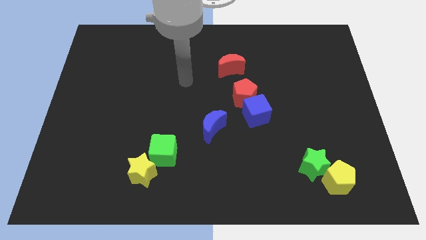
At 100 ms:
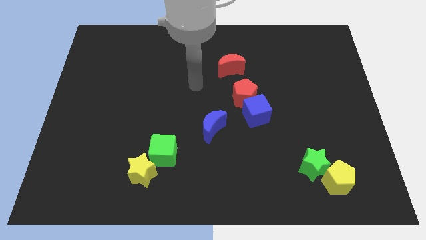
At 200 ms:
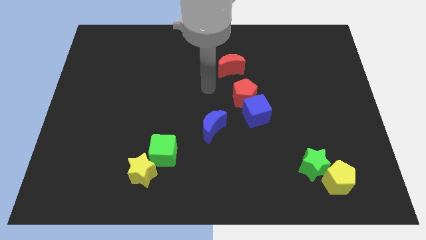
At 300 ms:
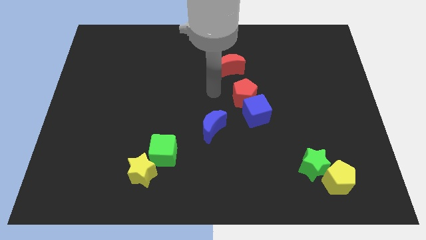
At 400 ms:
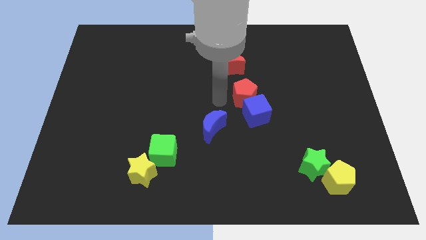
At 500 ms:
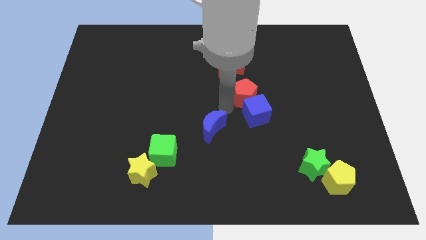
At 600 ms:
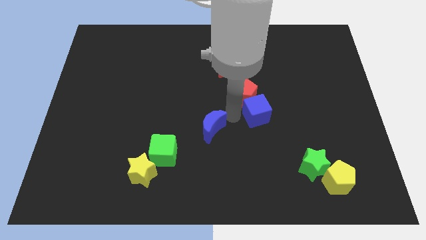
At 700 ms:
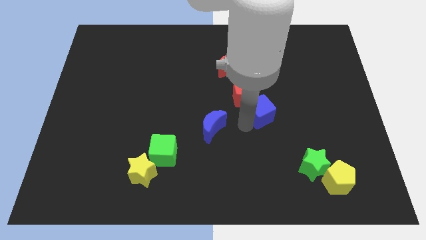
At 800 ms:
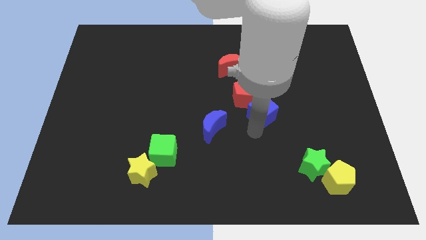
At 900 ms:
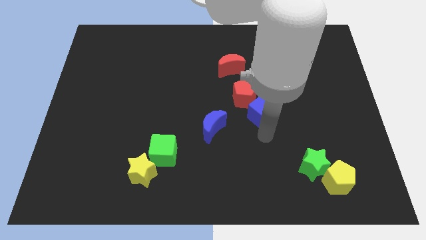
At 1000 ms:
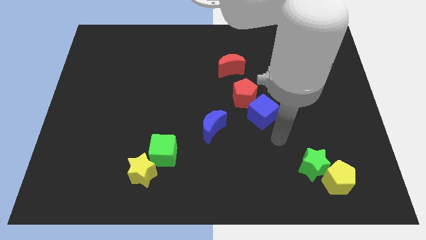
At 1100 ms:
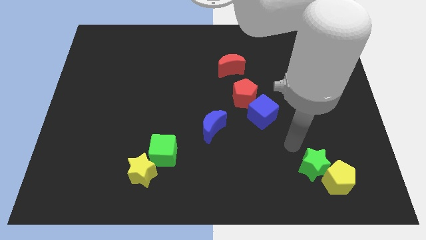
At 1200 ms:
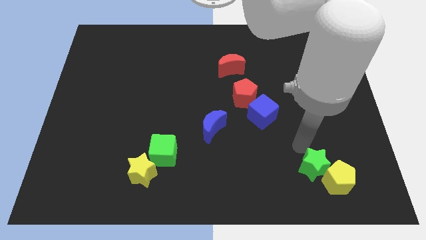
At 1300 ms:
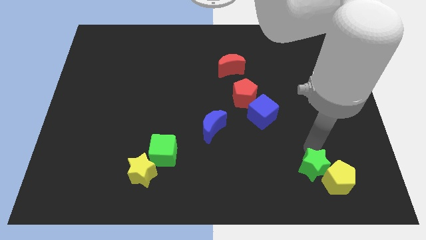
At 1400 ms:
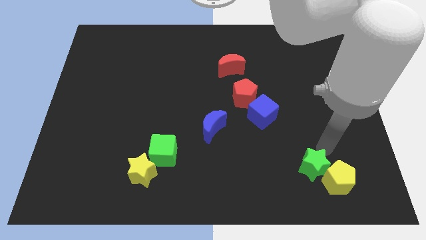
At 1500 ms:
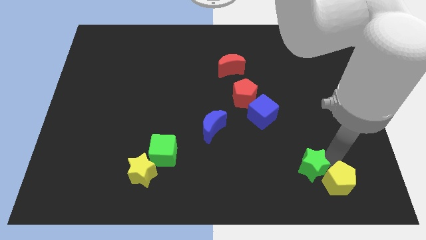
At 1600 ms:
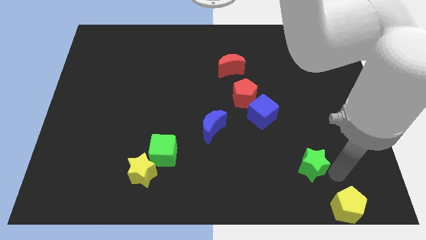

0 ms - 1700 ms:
move the green star away from the yellow pentagon

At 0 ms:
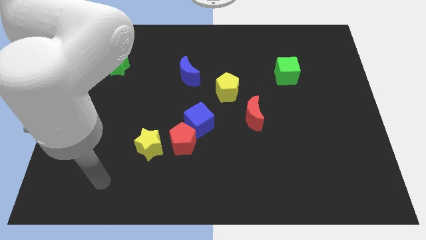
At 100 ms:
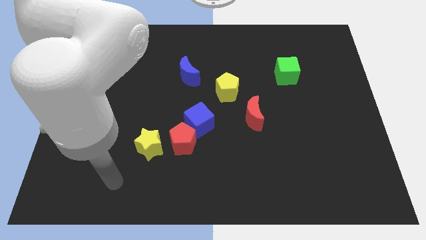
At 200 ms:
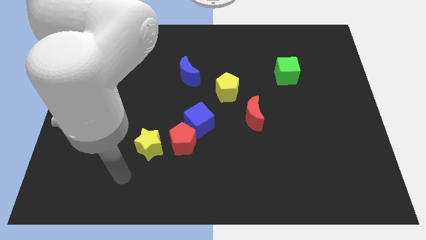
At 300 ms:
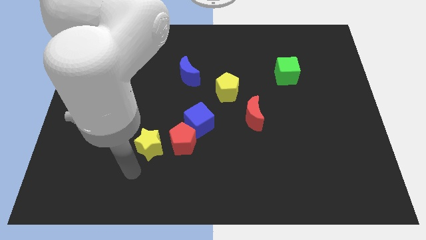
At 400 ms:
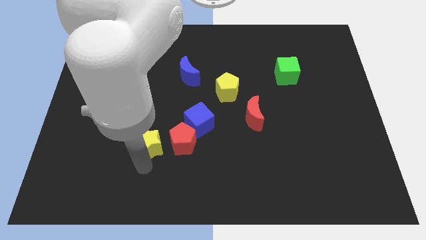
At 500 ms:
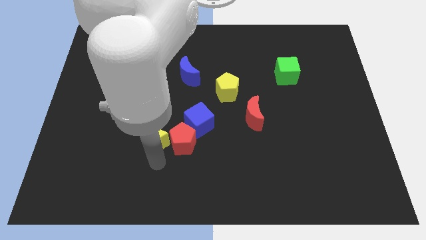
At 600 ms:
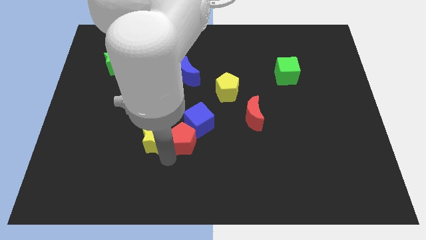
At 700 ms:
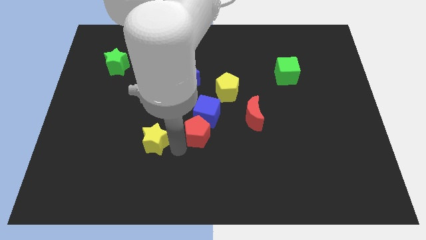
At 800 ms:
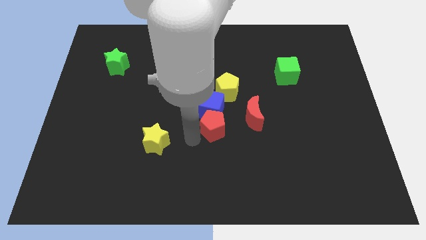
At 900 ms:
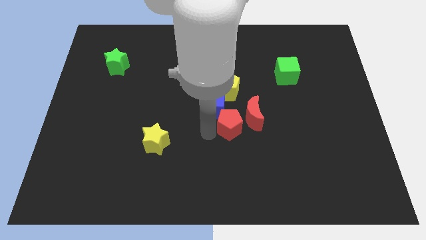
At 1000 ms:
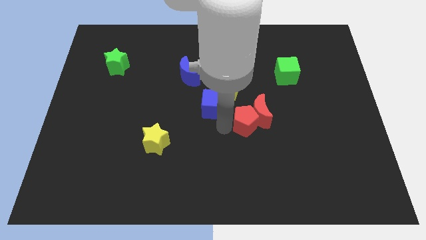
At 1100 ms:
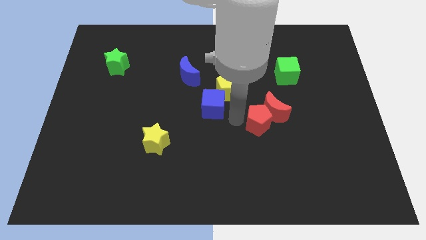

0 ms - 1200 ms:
separate the blue cube from the red pentagon

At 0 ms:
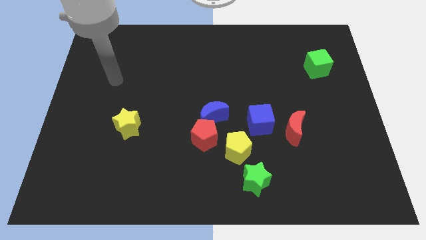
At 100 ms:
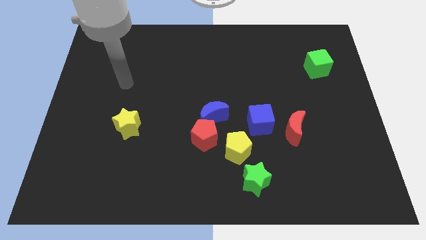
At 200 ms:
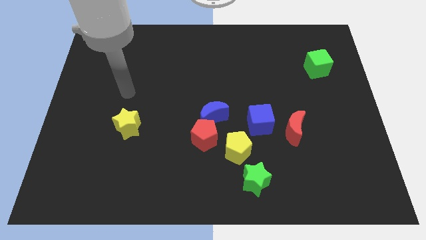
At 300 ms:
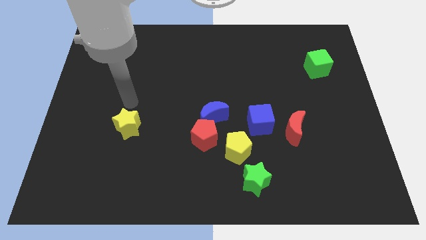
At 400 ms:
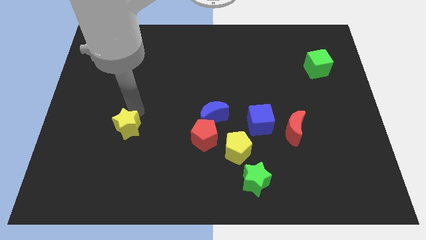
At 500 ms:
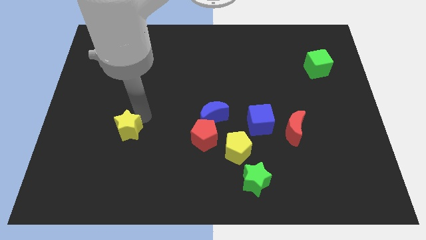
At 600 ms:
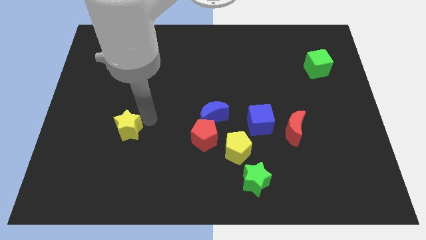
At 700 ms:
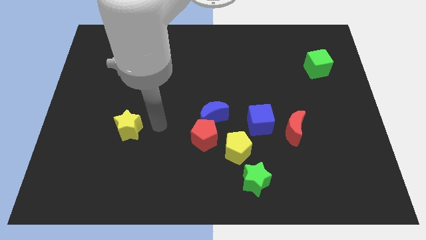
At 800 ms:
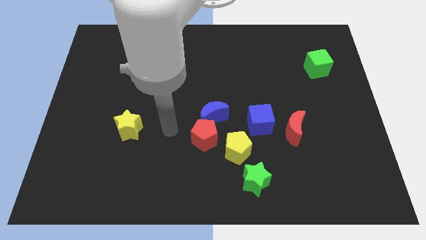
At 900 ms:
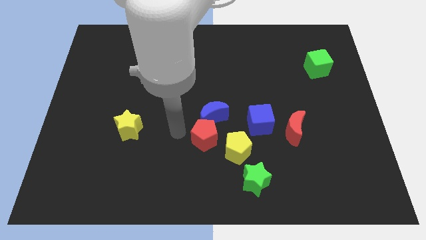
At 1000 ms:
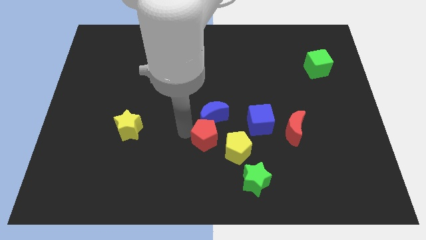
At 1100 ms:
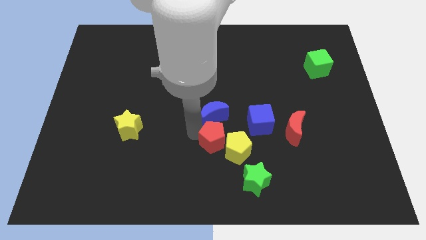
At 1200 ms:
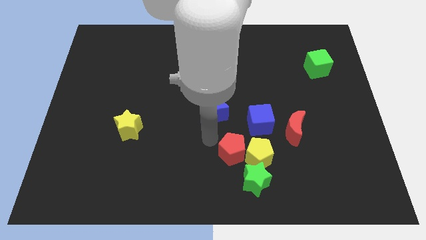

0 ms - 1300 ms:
pull the blue moon apart from the red pentagon

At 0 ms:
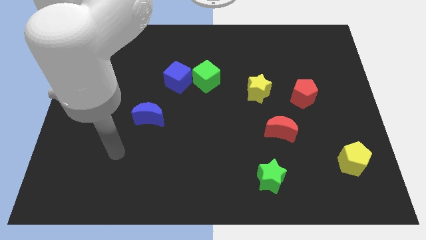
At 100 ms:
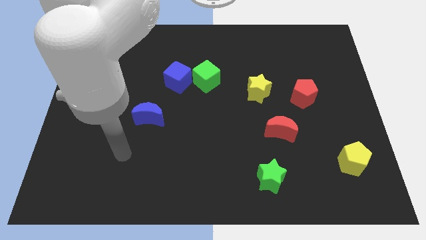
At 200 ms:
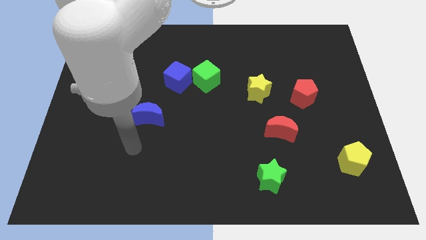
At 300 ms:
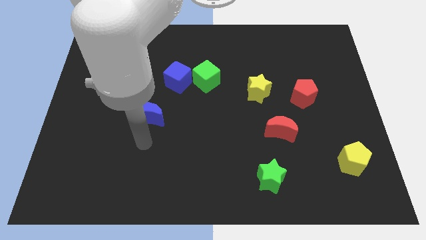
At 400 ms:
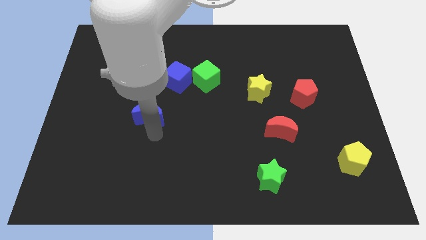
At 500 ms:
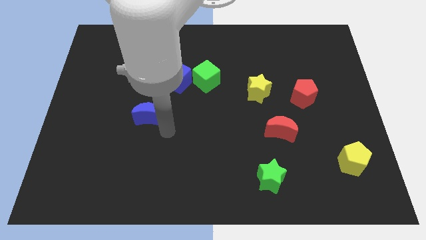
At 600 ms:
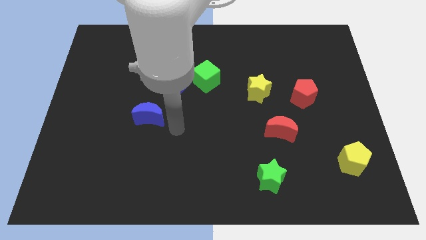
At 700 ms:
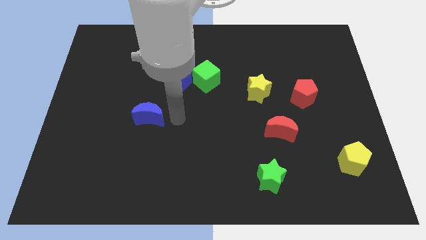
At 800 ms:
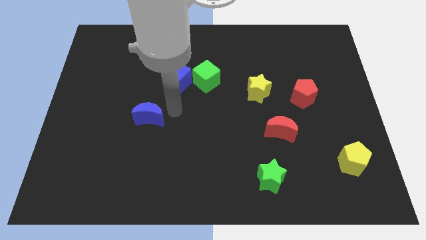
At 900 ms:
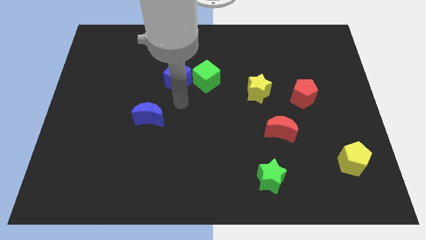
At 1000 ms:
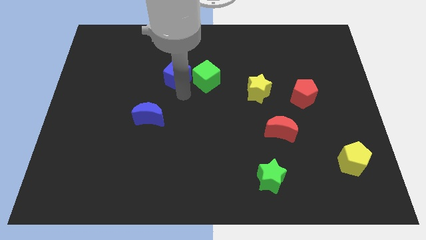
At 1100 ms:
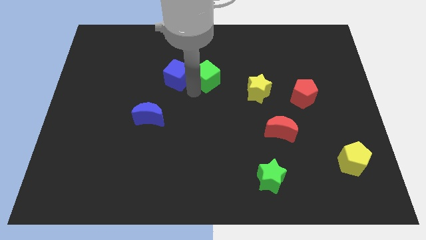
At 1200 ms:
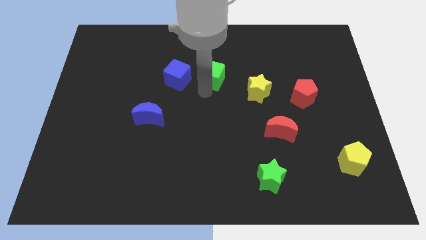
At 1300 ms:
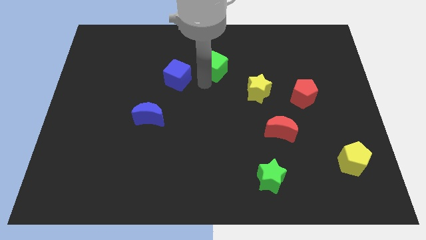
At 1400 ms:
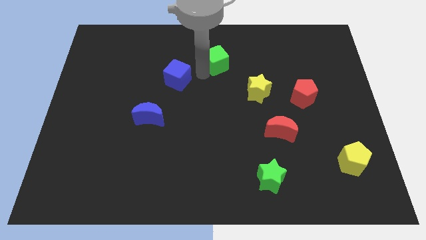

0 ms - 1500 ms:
pull the blue cube apart from the green cube

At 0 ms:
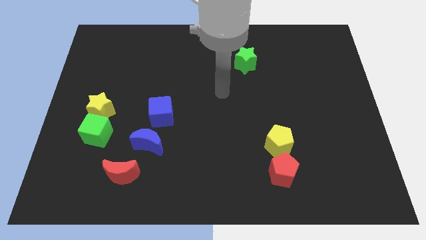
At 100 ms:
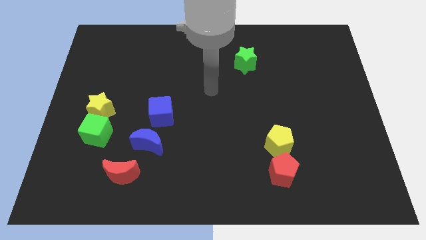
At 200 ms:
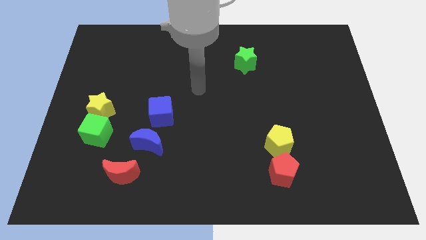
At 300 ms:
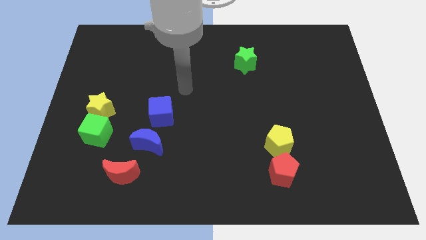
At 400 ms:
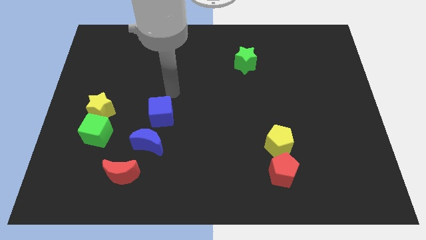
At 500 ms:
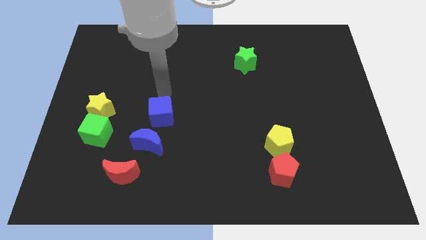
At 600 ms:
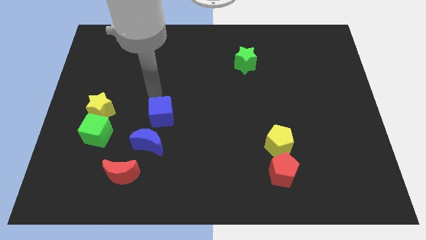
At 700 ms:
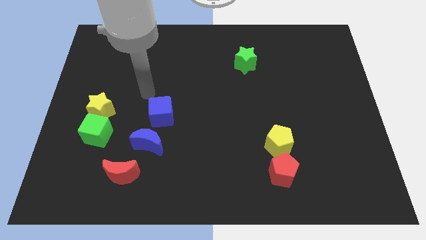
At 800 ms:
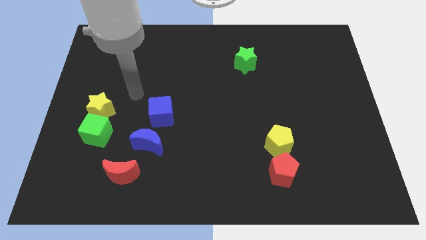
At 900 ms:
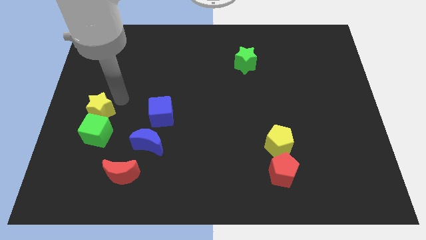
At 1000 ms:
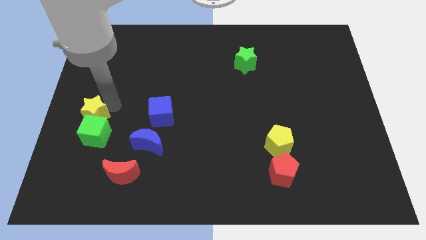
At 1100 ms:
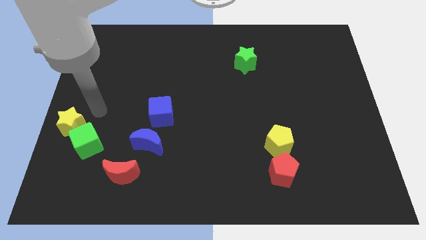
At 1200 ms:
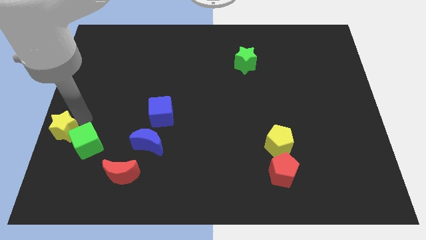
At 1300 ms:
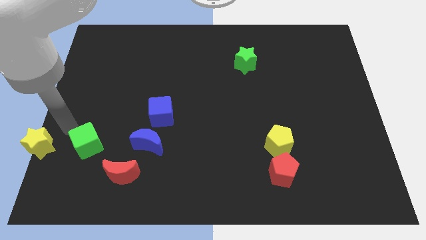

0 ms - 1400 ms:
separate the green cube from the yellow star

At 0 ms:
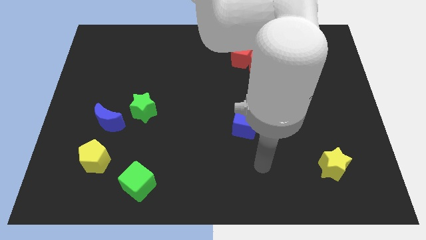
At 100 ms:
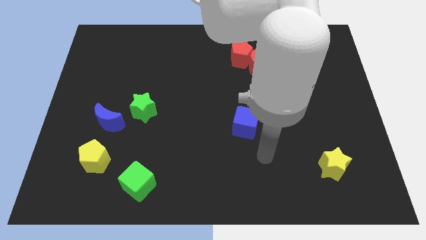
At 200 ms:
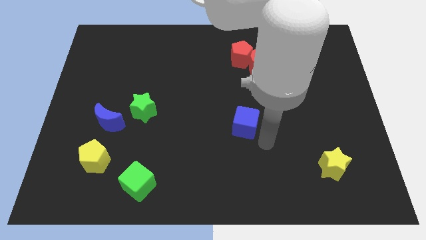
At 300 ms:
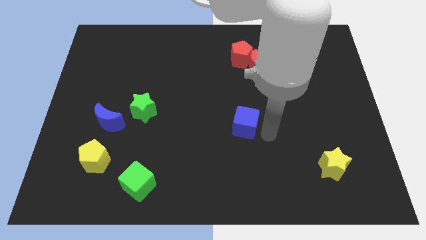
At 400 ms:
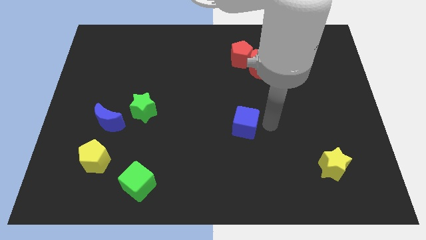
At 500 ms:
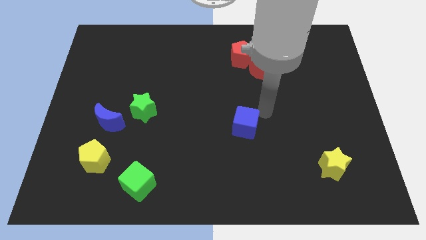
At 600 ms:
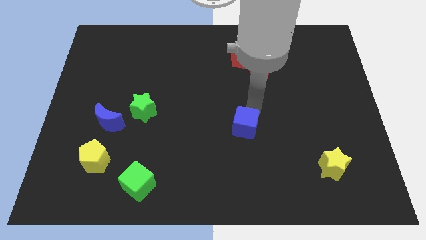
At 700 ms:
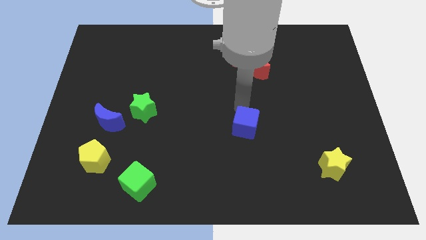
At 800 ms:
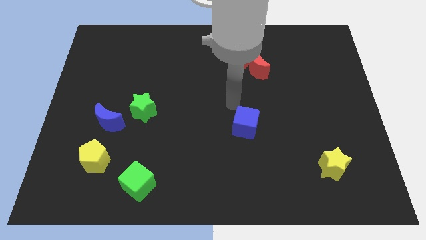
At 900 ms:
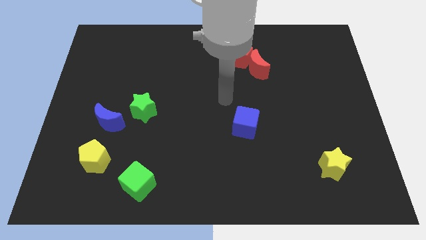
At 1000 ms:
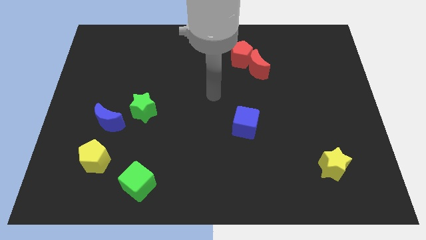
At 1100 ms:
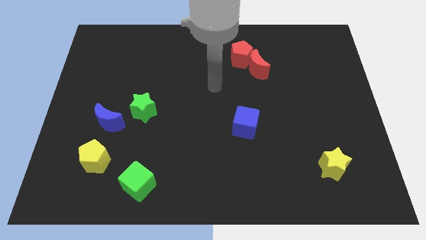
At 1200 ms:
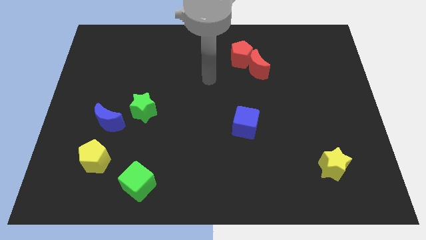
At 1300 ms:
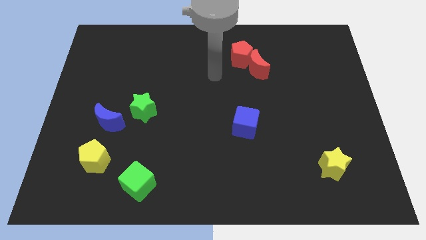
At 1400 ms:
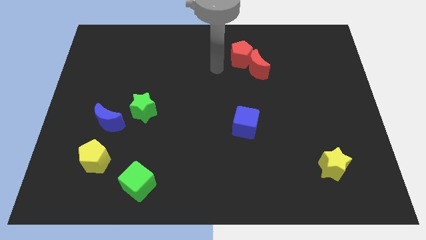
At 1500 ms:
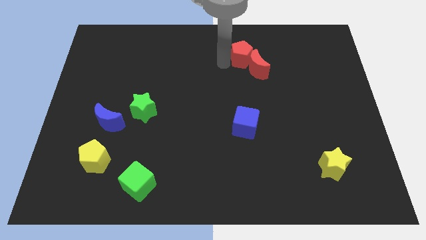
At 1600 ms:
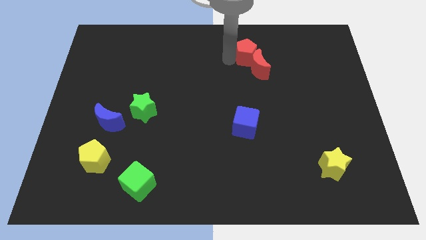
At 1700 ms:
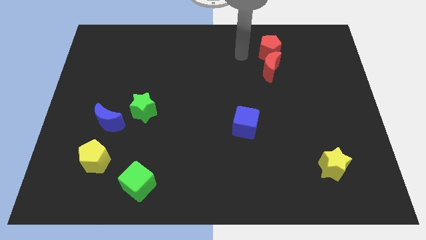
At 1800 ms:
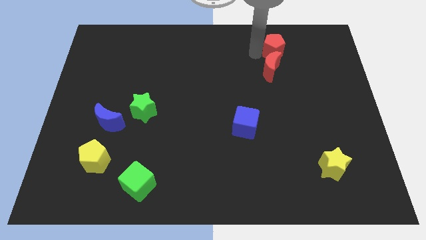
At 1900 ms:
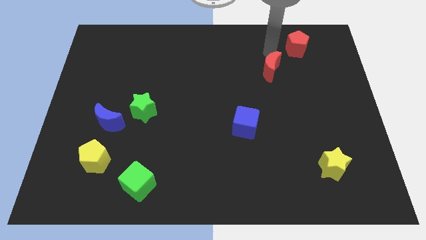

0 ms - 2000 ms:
separate the red moon from the red pentagon

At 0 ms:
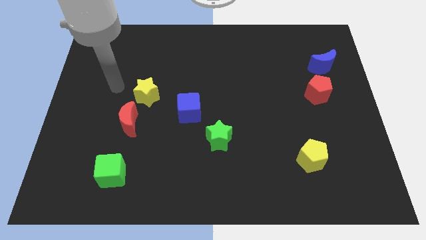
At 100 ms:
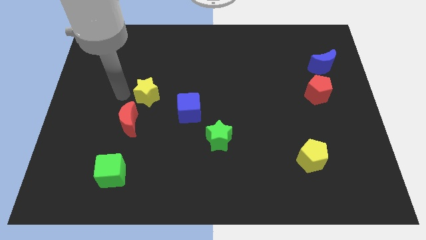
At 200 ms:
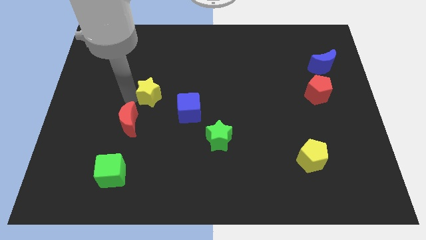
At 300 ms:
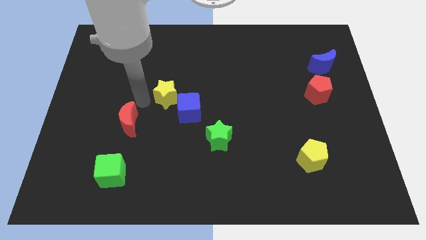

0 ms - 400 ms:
separate the red moon from the yellow star

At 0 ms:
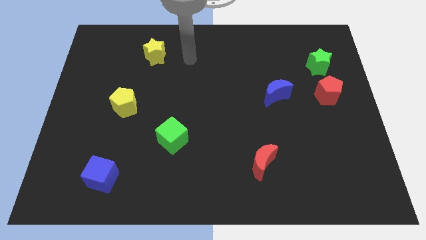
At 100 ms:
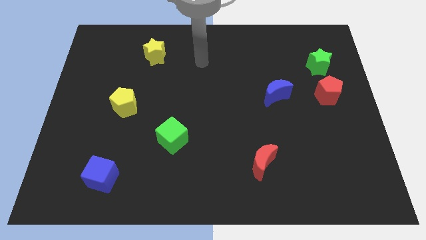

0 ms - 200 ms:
pull the red pentagon apart from the green star
